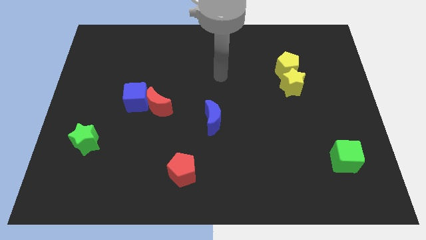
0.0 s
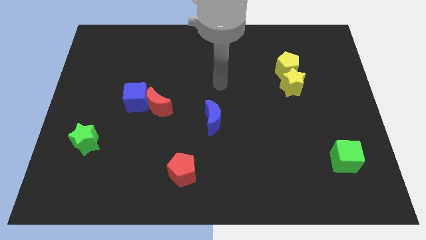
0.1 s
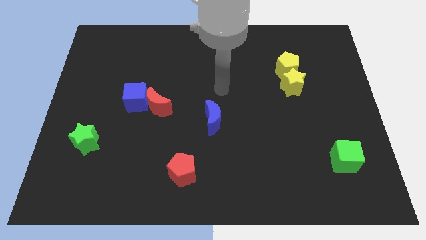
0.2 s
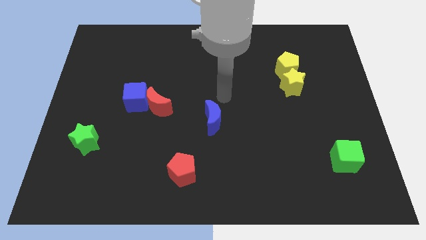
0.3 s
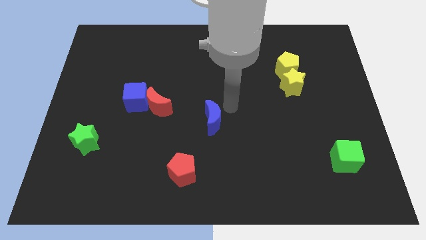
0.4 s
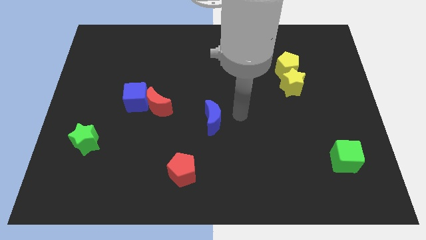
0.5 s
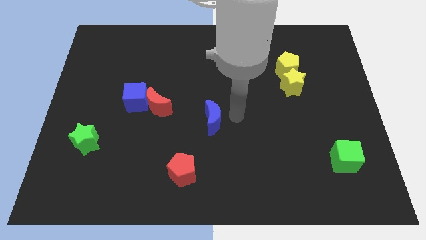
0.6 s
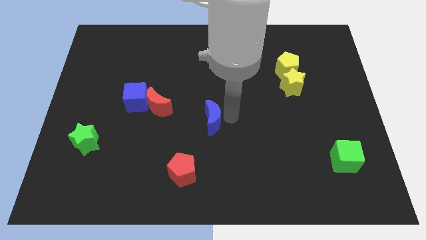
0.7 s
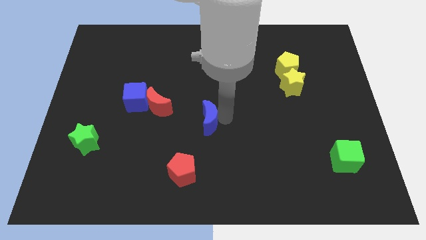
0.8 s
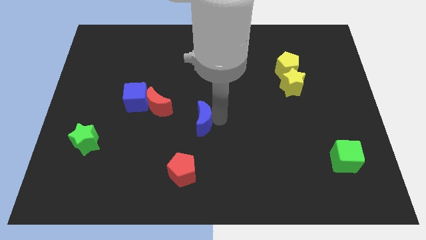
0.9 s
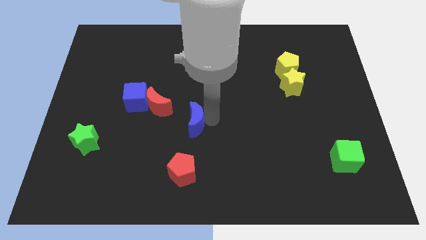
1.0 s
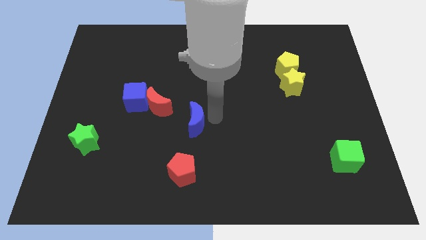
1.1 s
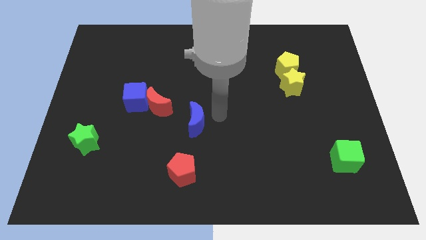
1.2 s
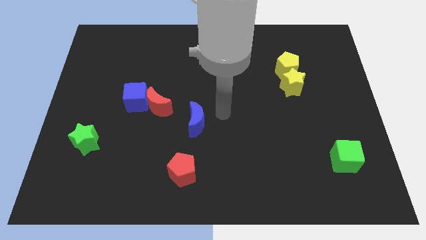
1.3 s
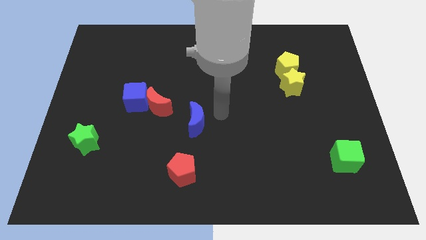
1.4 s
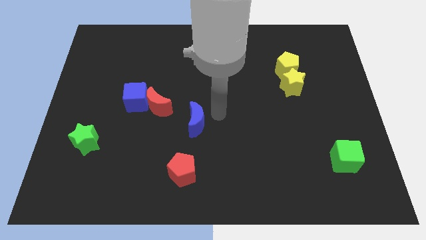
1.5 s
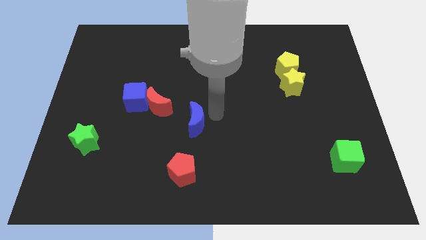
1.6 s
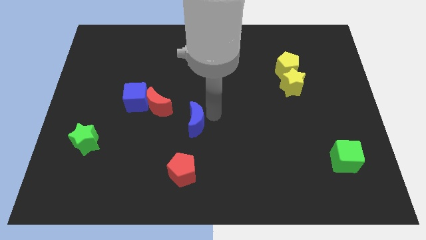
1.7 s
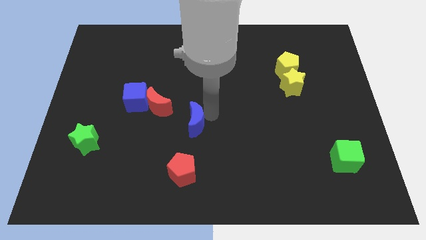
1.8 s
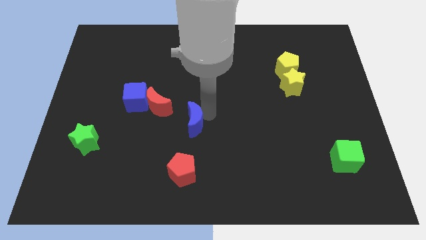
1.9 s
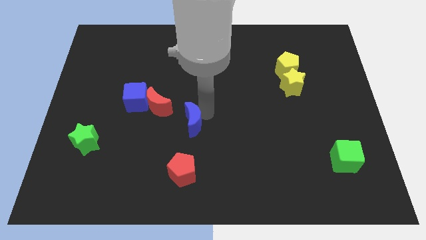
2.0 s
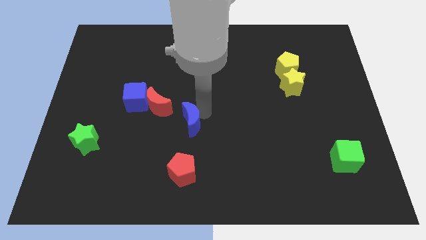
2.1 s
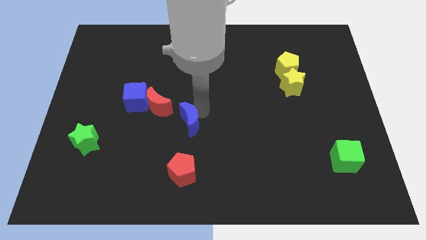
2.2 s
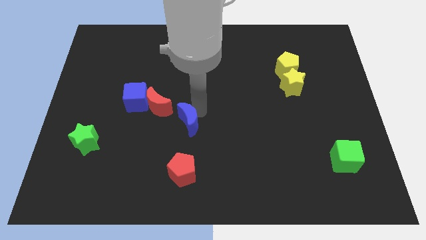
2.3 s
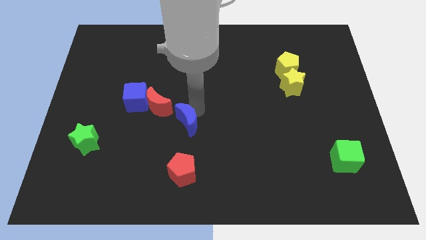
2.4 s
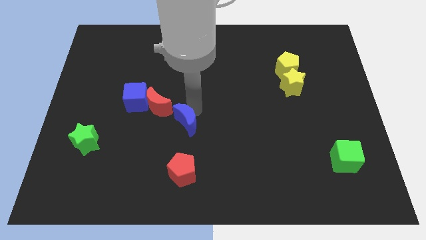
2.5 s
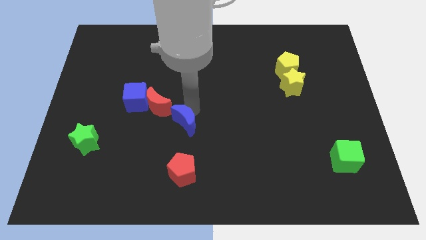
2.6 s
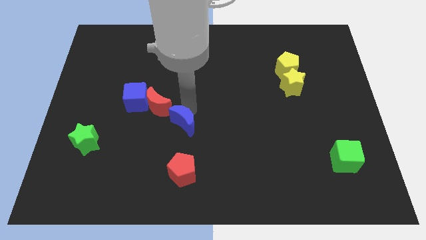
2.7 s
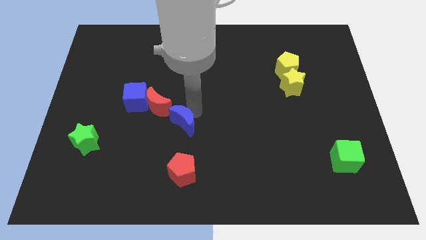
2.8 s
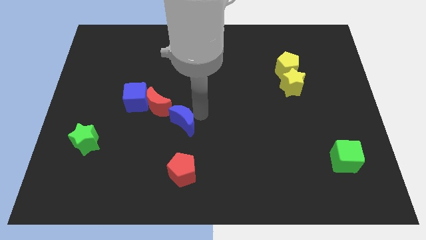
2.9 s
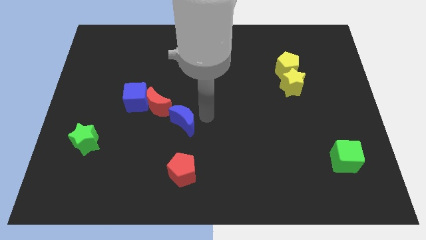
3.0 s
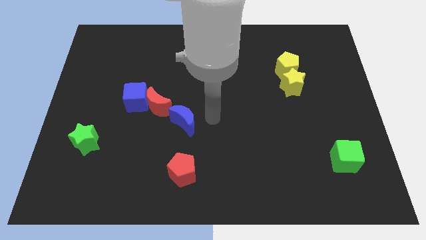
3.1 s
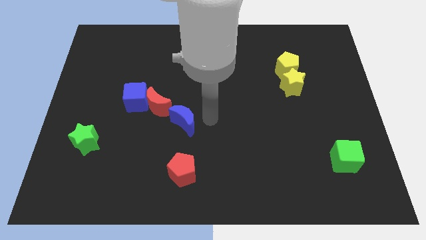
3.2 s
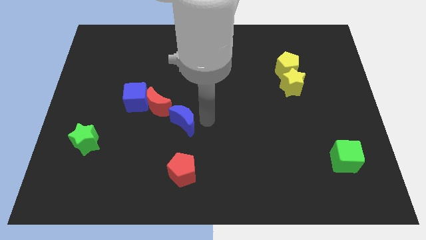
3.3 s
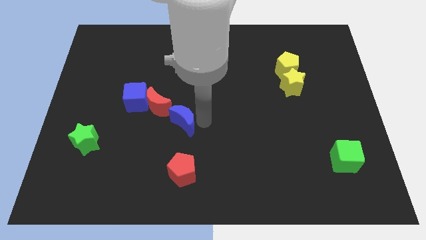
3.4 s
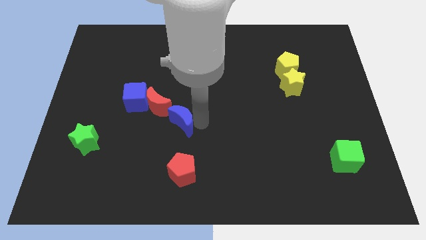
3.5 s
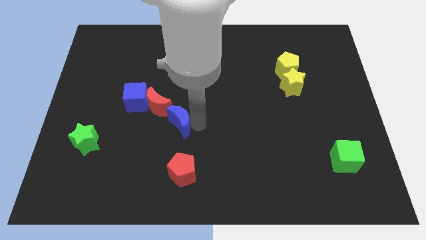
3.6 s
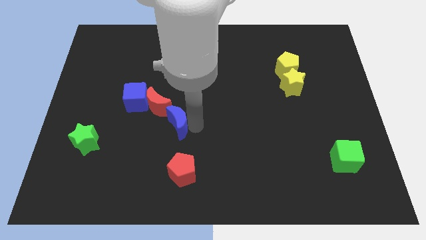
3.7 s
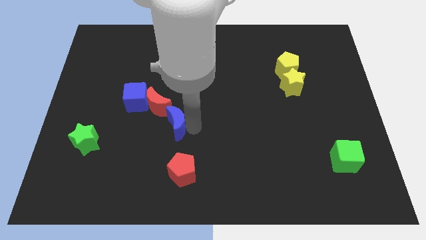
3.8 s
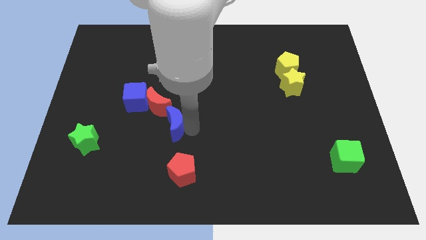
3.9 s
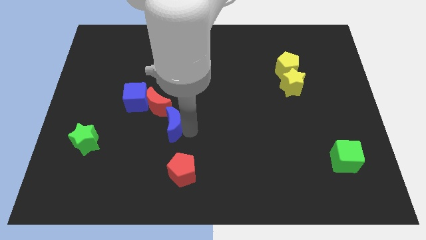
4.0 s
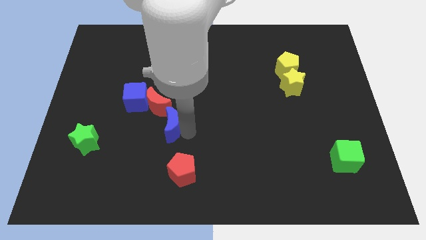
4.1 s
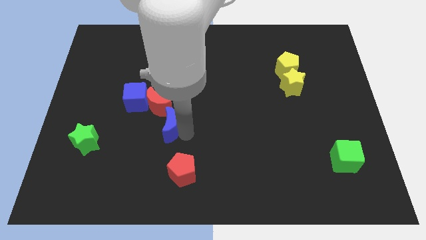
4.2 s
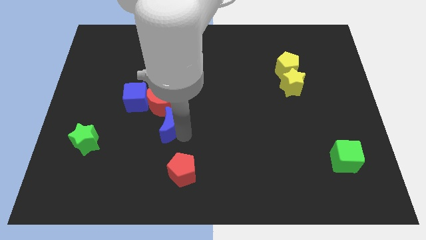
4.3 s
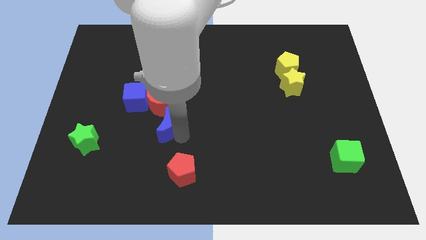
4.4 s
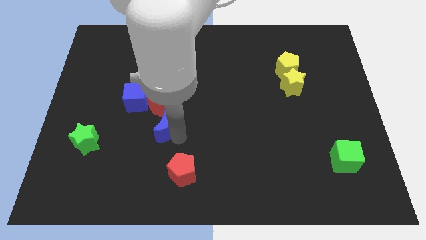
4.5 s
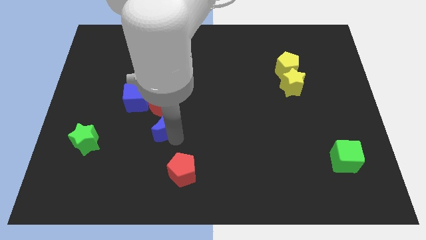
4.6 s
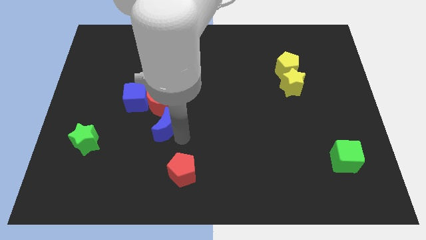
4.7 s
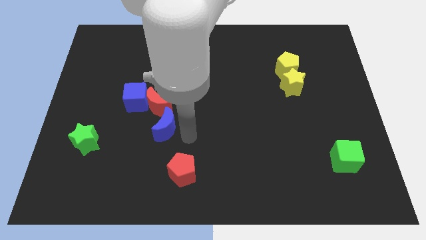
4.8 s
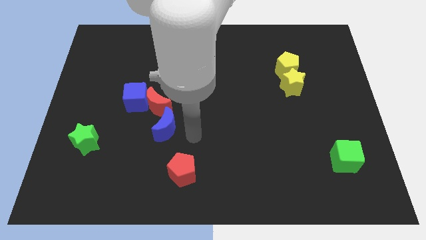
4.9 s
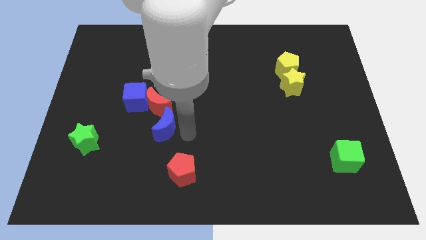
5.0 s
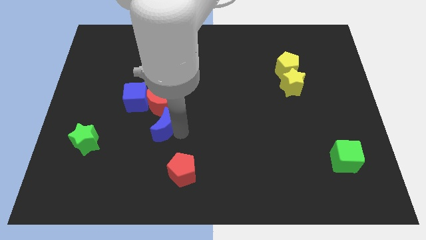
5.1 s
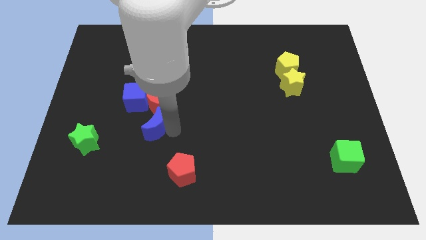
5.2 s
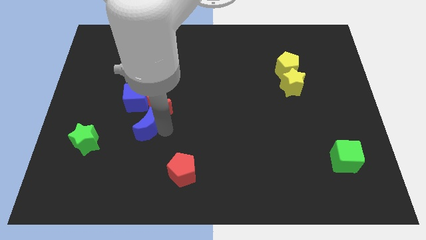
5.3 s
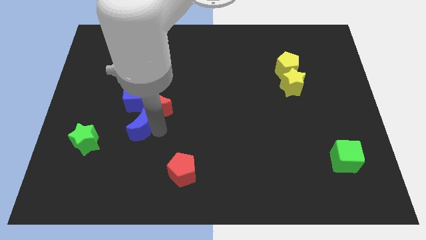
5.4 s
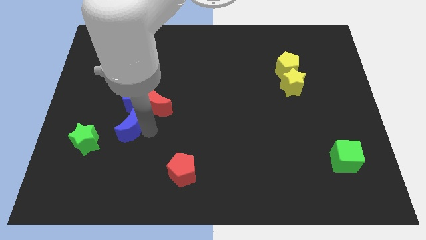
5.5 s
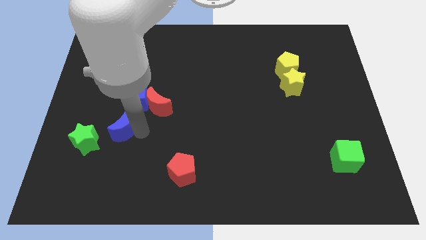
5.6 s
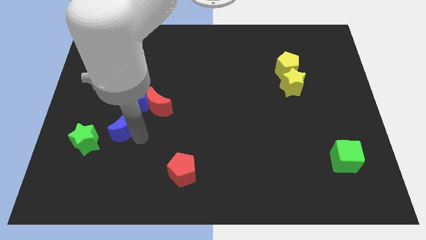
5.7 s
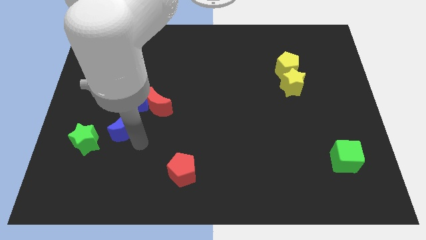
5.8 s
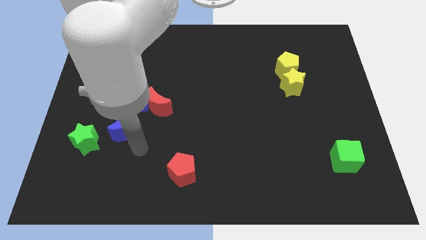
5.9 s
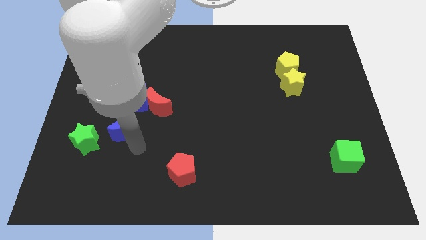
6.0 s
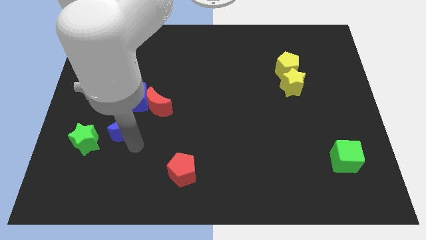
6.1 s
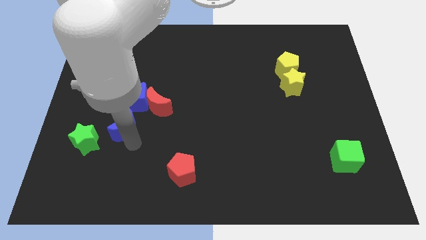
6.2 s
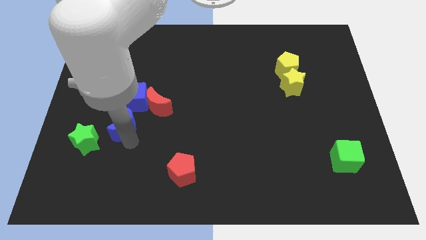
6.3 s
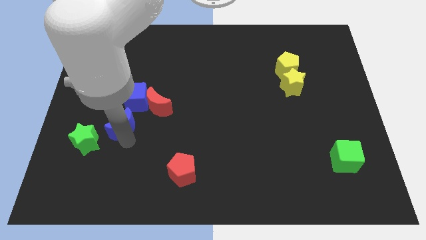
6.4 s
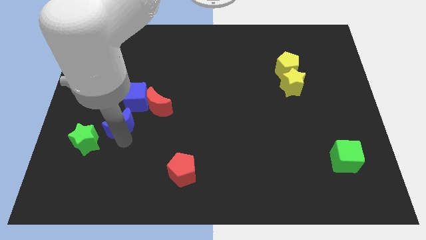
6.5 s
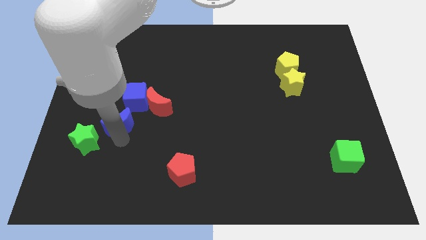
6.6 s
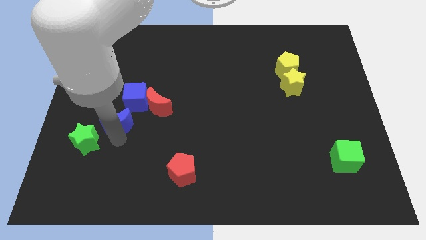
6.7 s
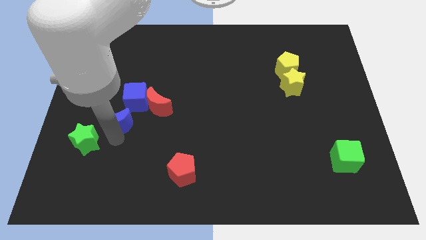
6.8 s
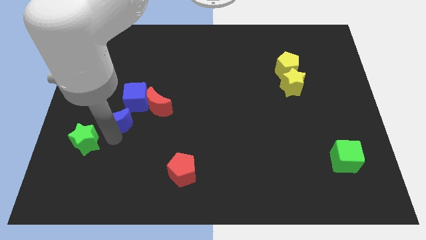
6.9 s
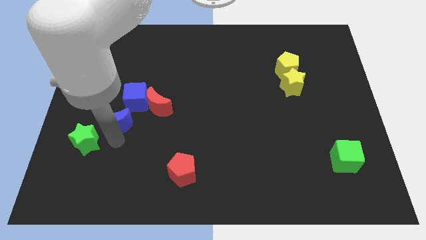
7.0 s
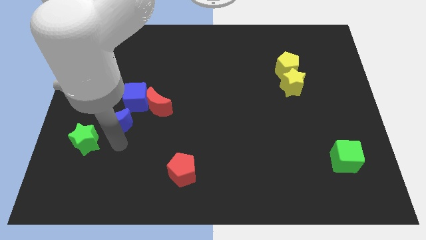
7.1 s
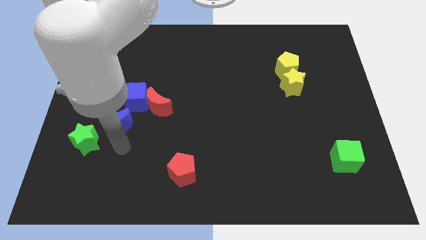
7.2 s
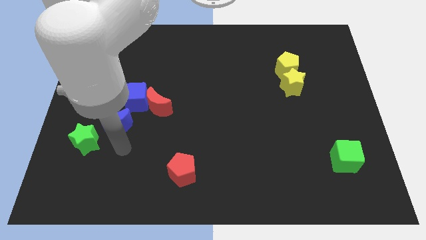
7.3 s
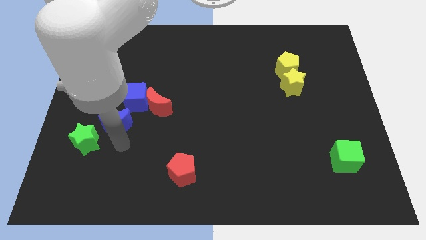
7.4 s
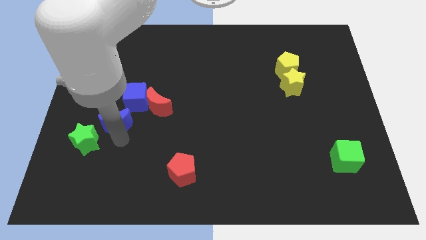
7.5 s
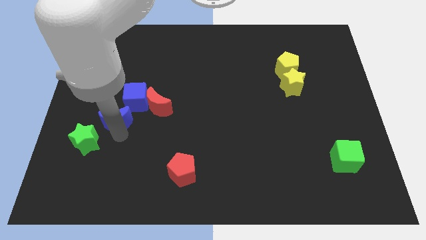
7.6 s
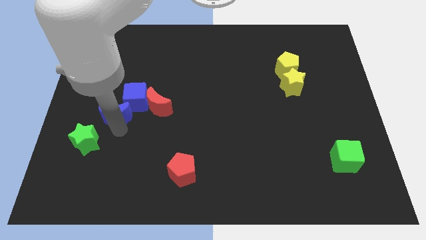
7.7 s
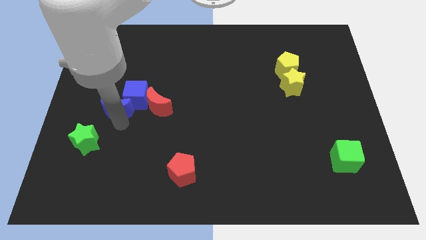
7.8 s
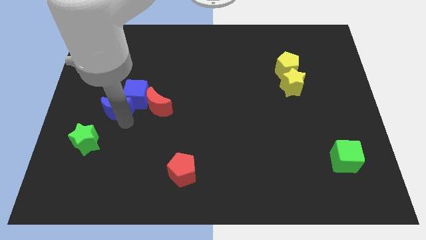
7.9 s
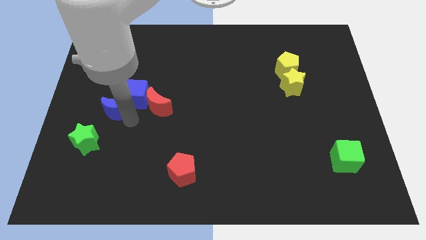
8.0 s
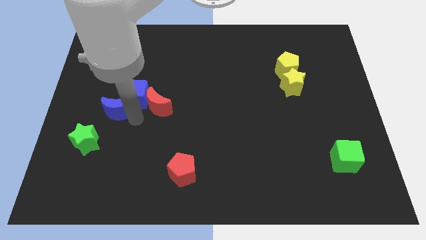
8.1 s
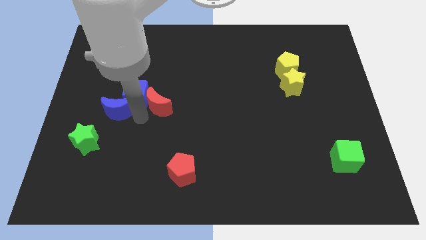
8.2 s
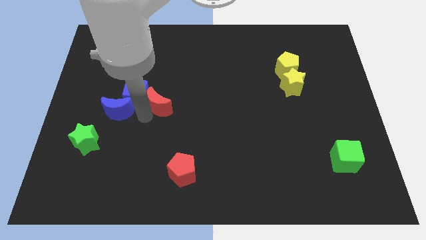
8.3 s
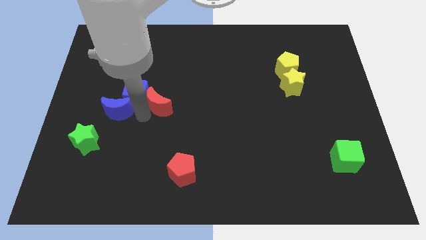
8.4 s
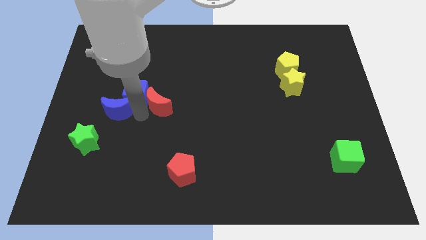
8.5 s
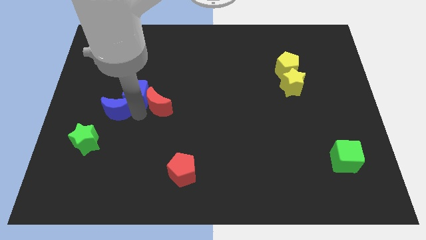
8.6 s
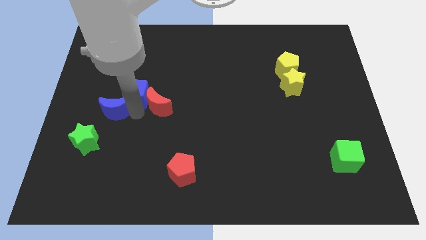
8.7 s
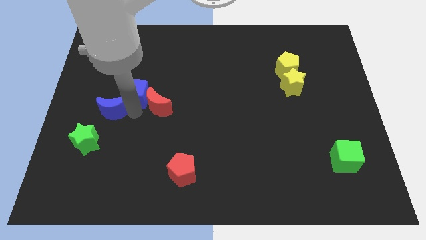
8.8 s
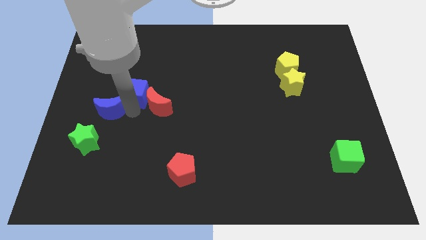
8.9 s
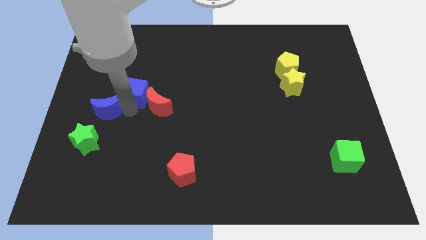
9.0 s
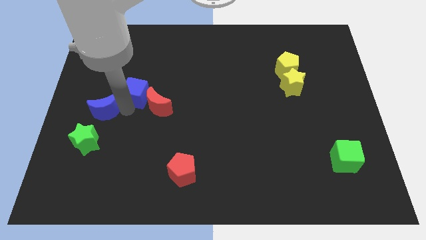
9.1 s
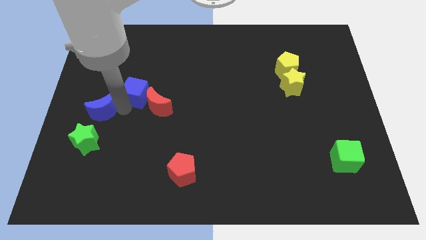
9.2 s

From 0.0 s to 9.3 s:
push the blue moon to the left side
